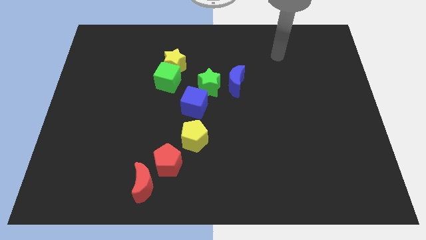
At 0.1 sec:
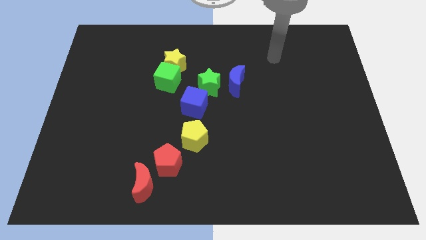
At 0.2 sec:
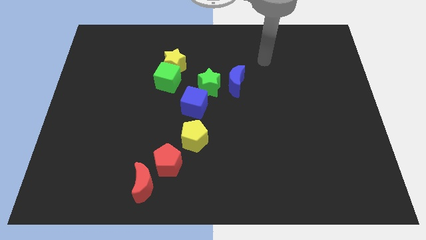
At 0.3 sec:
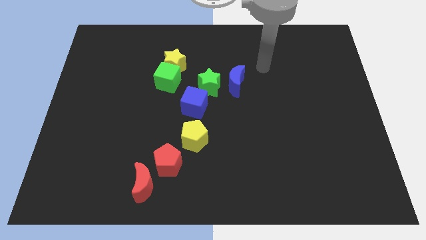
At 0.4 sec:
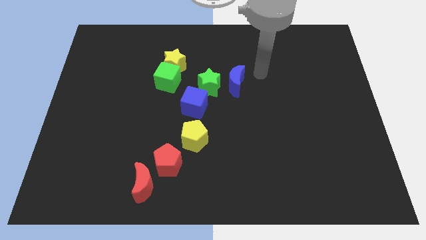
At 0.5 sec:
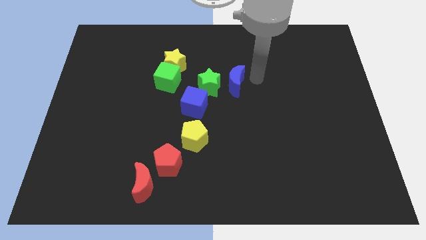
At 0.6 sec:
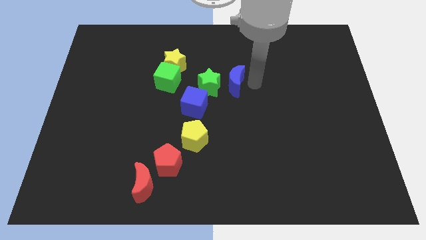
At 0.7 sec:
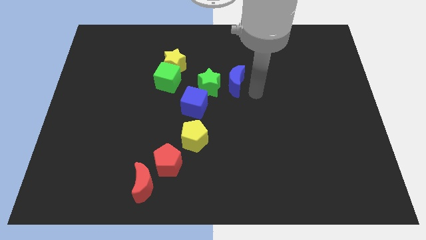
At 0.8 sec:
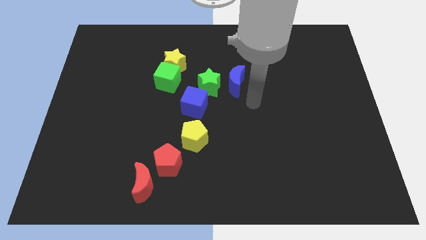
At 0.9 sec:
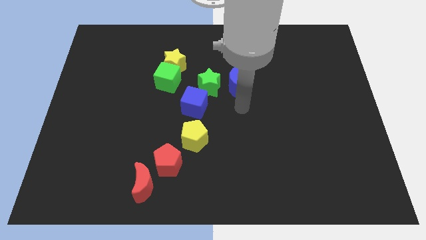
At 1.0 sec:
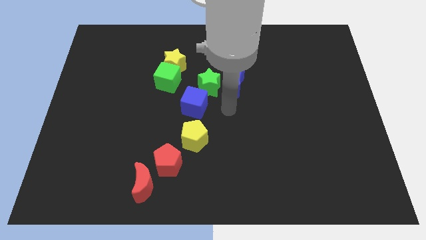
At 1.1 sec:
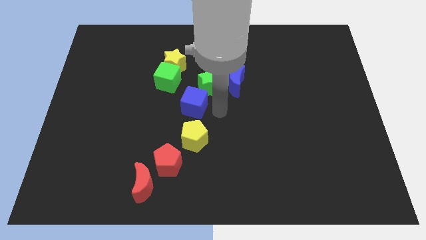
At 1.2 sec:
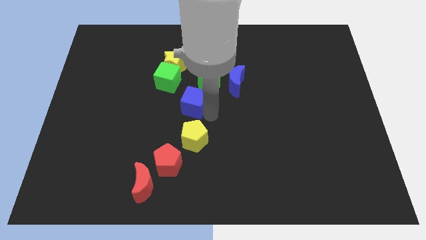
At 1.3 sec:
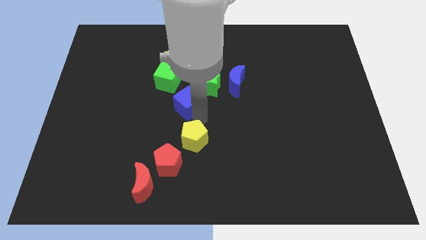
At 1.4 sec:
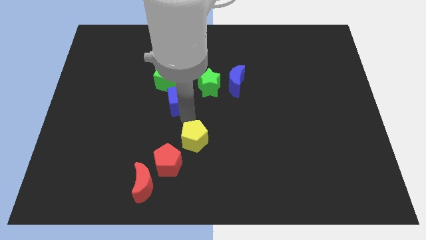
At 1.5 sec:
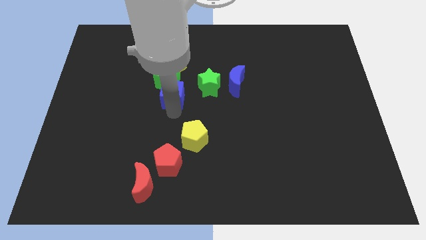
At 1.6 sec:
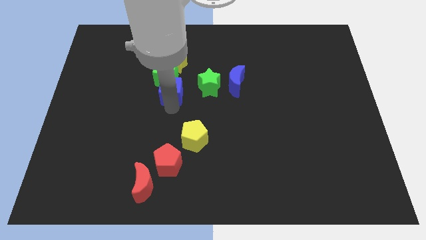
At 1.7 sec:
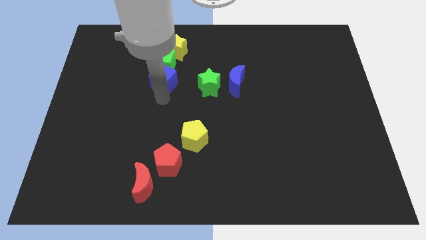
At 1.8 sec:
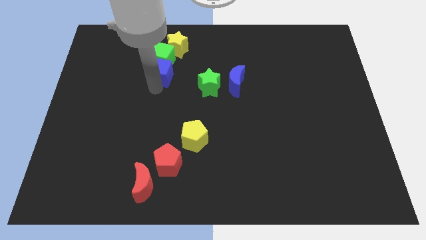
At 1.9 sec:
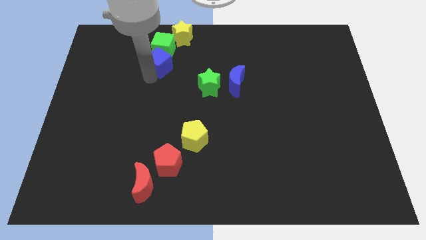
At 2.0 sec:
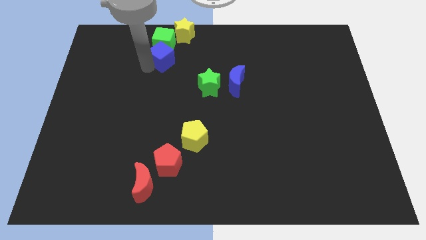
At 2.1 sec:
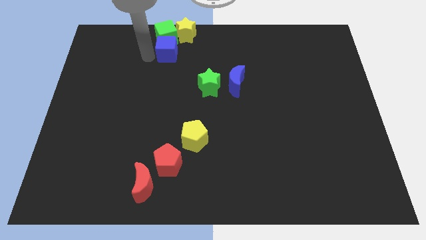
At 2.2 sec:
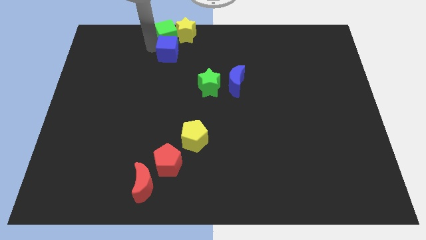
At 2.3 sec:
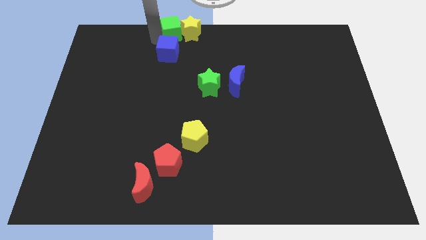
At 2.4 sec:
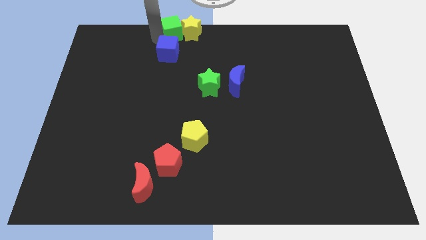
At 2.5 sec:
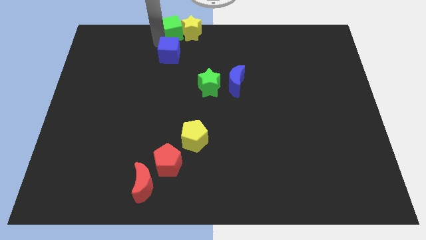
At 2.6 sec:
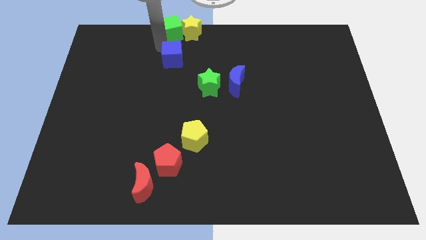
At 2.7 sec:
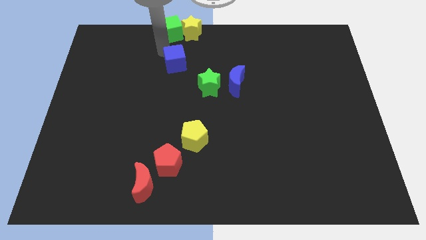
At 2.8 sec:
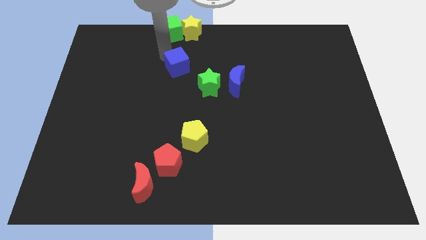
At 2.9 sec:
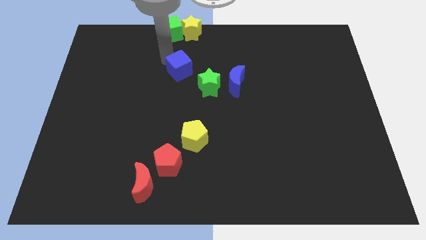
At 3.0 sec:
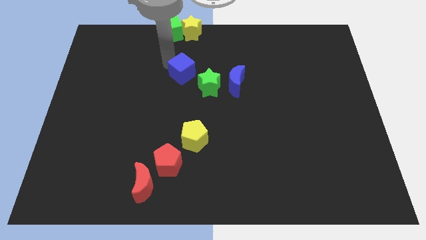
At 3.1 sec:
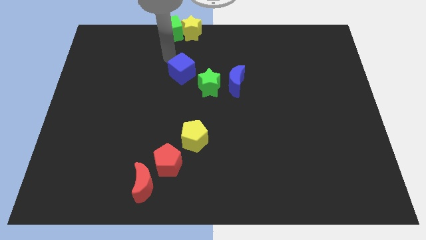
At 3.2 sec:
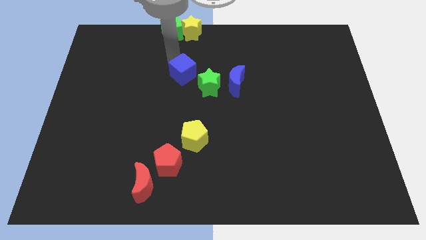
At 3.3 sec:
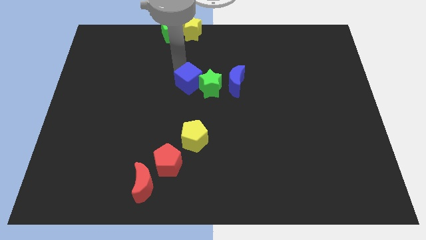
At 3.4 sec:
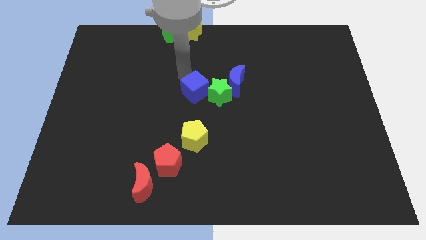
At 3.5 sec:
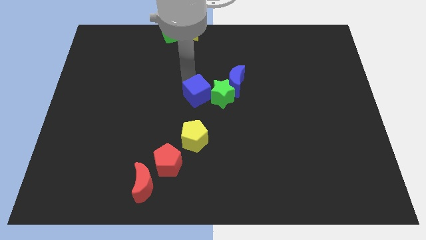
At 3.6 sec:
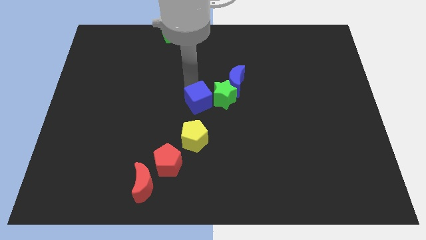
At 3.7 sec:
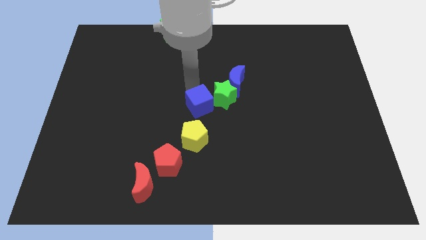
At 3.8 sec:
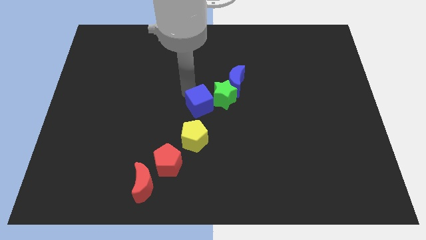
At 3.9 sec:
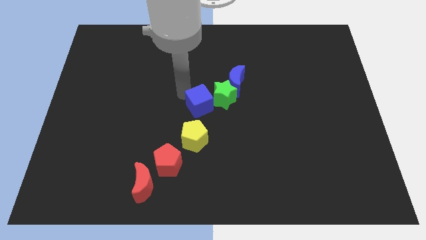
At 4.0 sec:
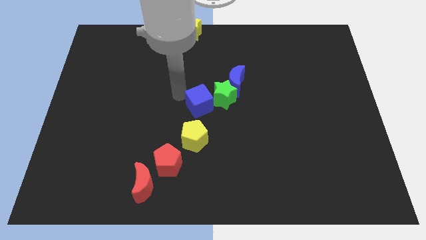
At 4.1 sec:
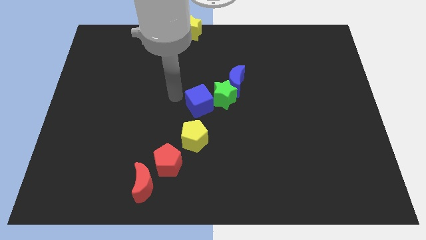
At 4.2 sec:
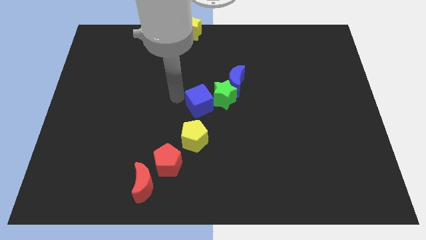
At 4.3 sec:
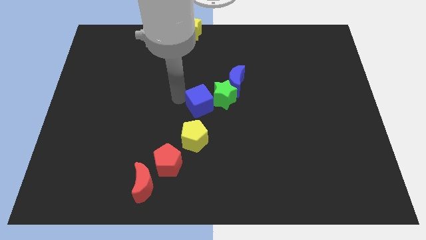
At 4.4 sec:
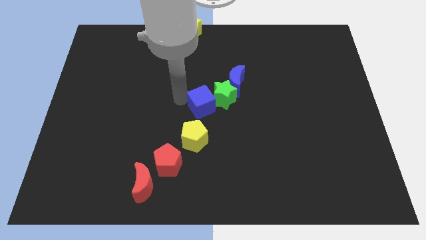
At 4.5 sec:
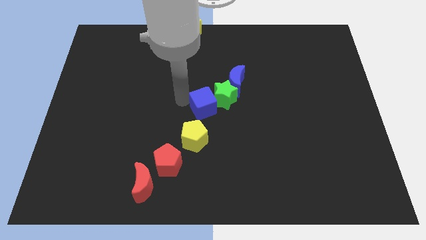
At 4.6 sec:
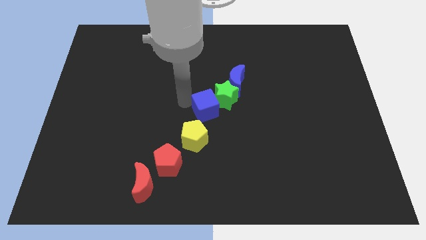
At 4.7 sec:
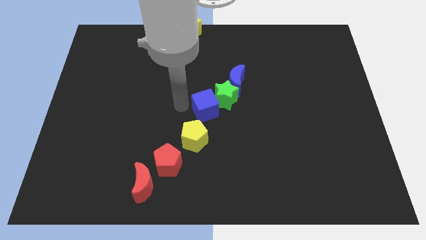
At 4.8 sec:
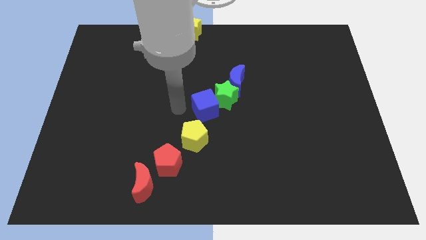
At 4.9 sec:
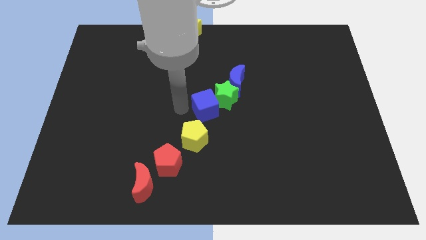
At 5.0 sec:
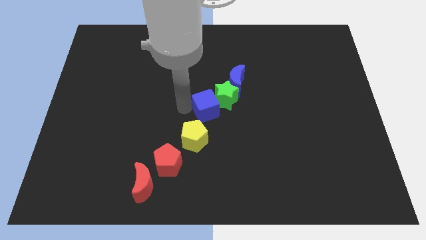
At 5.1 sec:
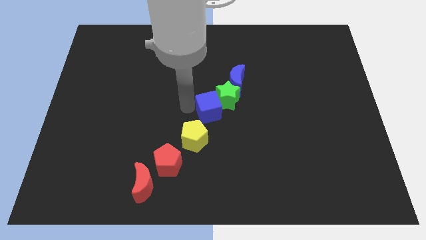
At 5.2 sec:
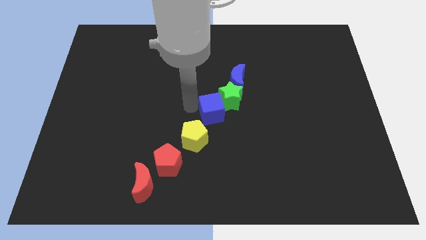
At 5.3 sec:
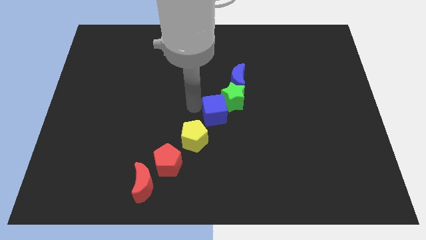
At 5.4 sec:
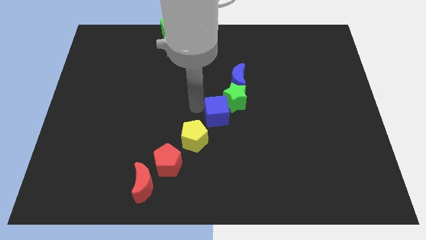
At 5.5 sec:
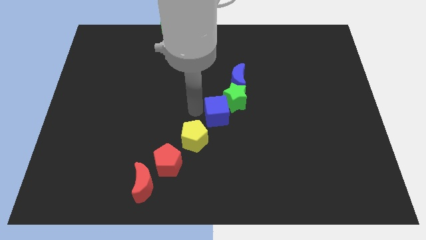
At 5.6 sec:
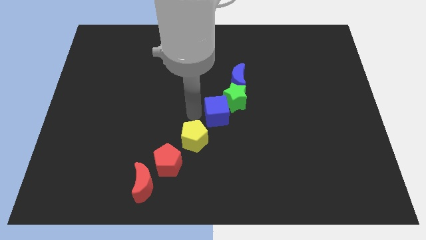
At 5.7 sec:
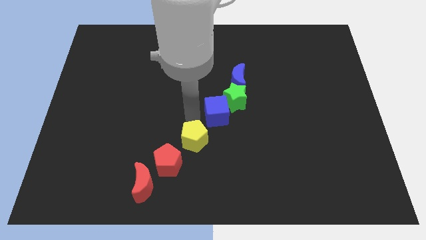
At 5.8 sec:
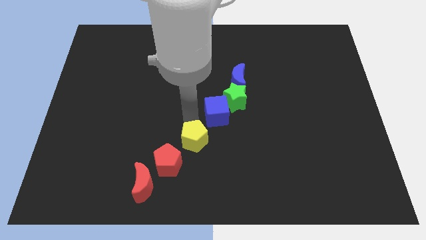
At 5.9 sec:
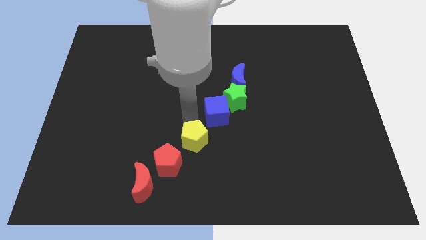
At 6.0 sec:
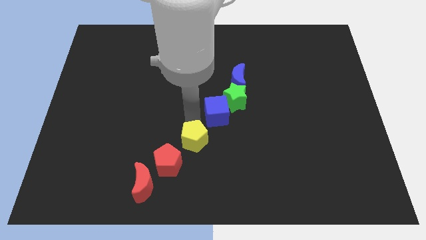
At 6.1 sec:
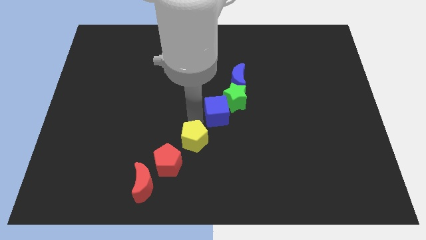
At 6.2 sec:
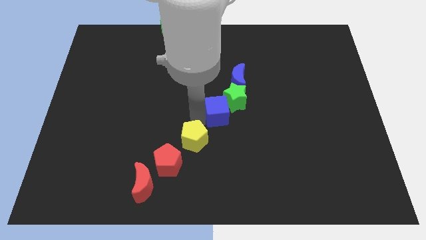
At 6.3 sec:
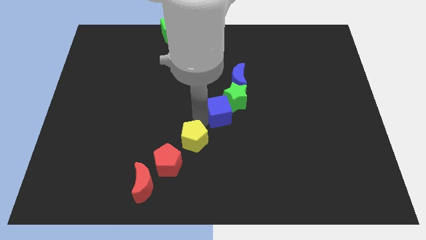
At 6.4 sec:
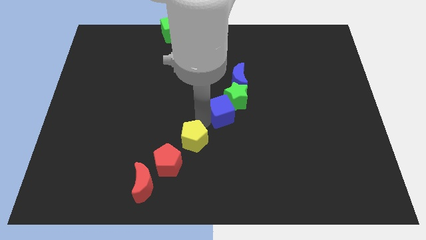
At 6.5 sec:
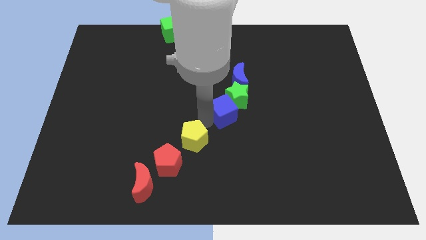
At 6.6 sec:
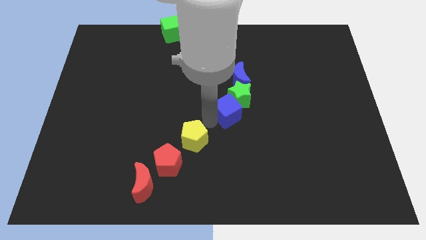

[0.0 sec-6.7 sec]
slightly push the blue cube right

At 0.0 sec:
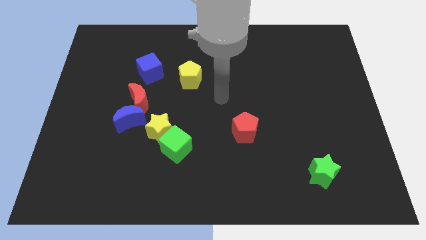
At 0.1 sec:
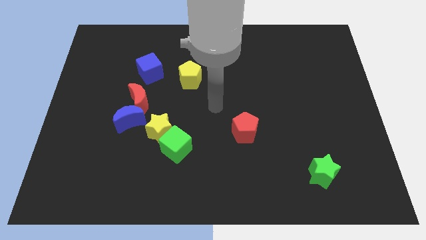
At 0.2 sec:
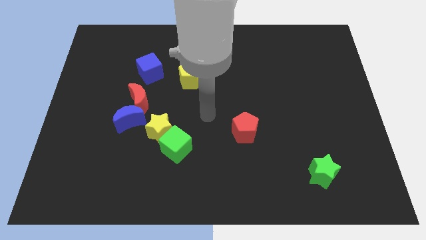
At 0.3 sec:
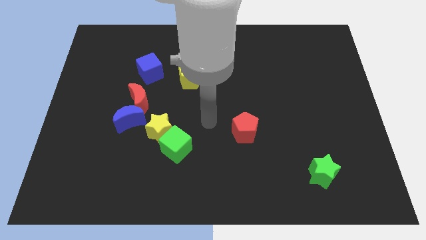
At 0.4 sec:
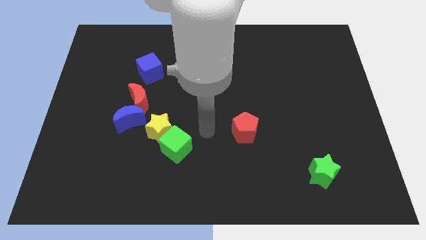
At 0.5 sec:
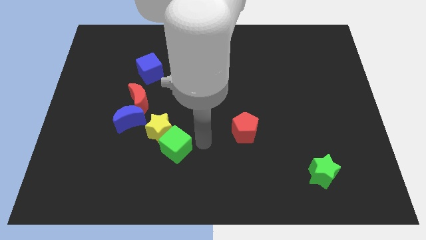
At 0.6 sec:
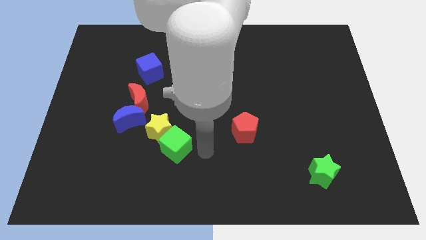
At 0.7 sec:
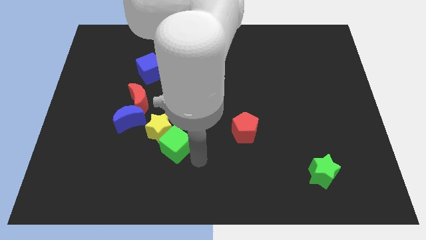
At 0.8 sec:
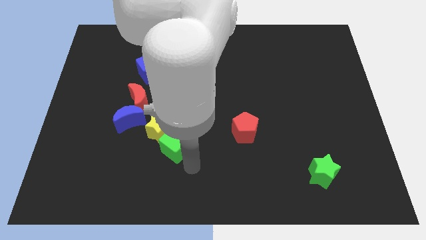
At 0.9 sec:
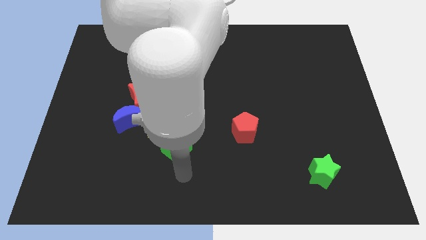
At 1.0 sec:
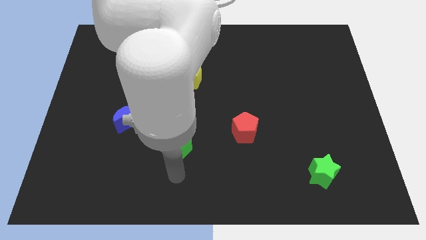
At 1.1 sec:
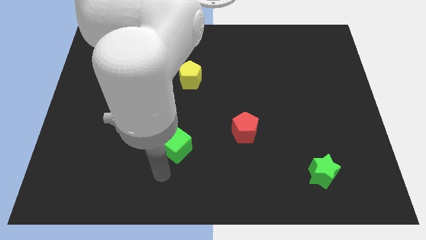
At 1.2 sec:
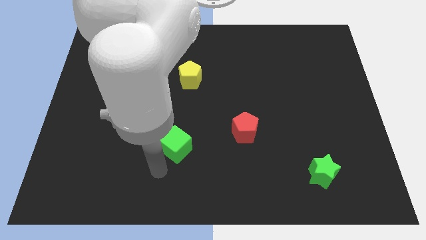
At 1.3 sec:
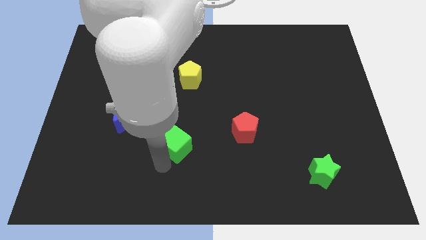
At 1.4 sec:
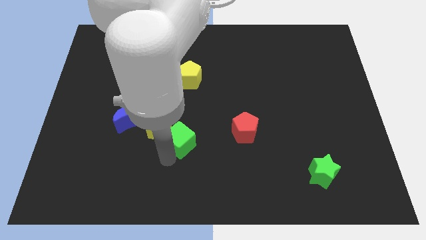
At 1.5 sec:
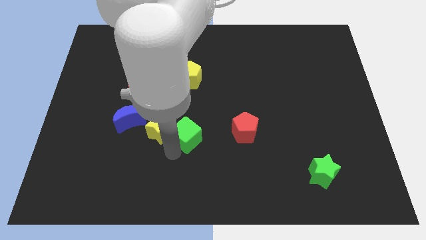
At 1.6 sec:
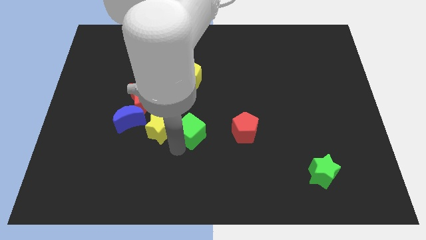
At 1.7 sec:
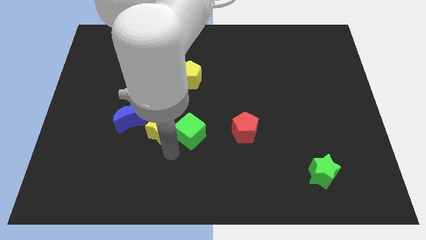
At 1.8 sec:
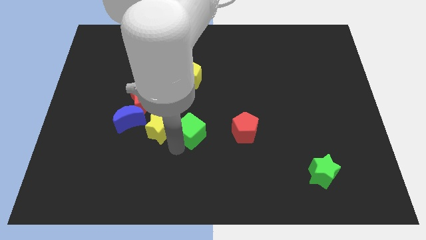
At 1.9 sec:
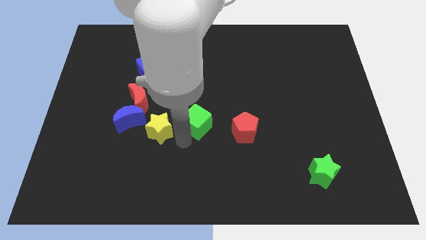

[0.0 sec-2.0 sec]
move the green cube up and to the right a little
